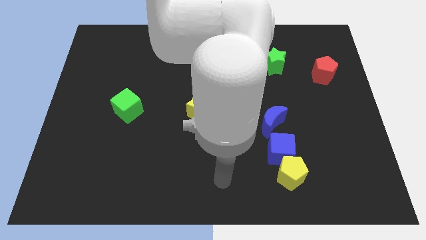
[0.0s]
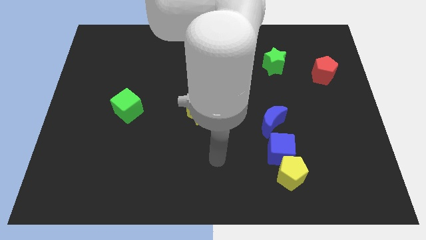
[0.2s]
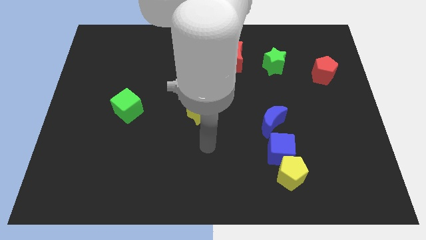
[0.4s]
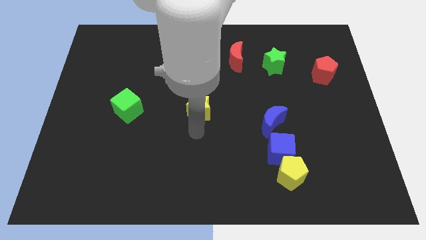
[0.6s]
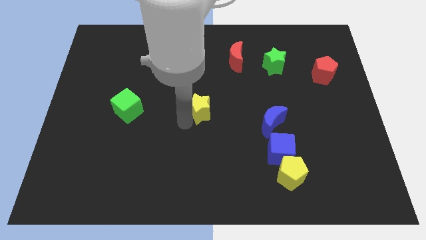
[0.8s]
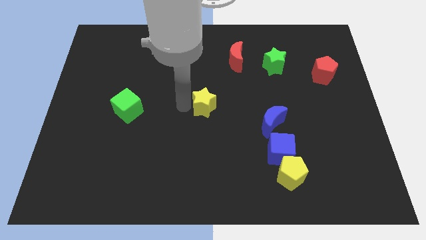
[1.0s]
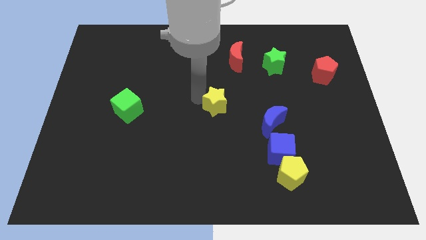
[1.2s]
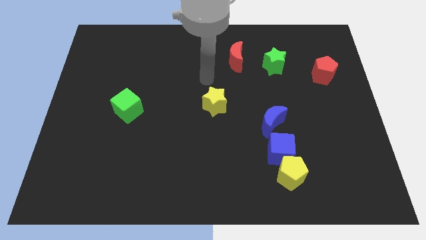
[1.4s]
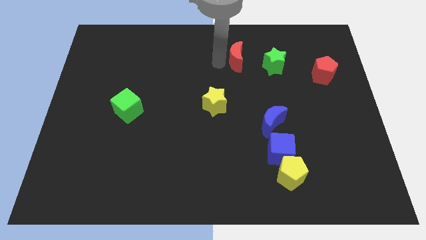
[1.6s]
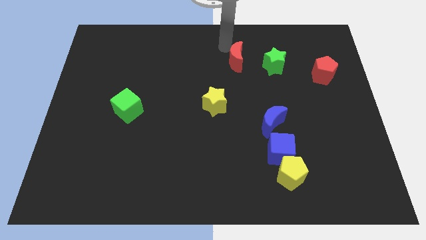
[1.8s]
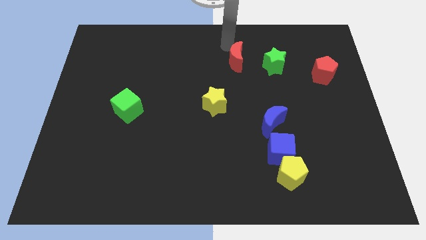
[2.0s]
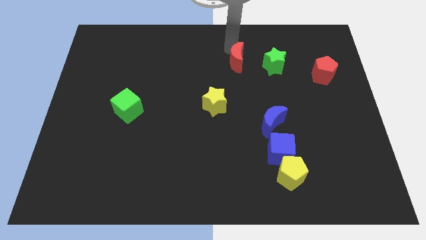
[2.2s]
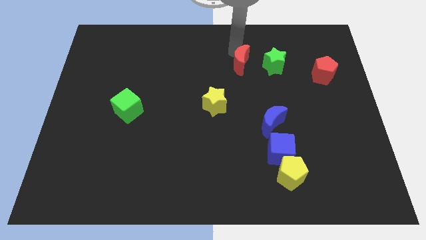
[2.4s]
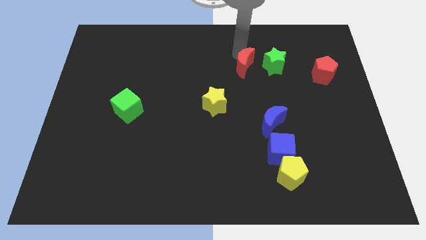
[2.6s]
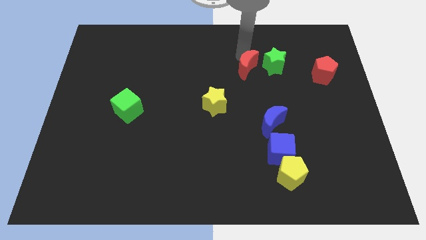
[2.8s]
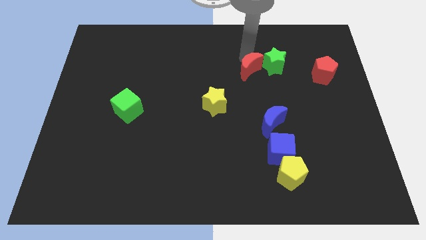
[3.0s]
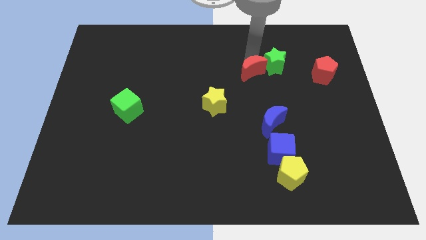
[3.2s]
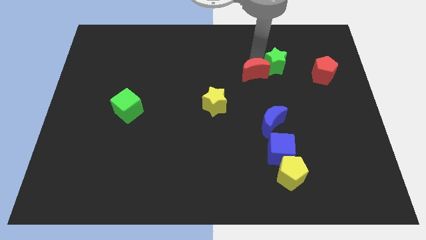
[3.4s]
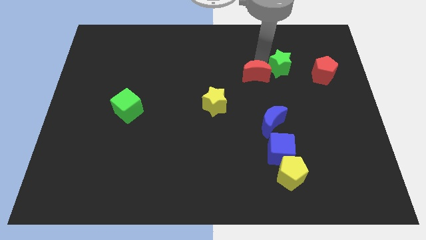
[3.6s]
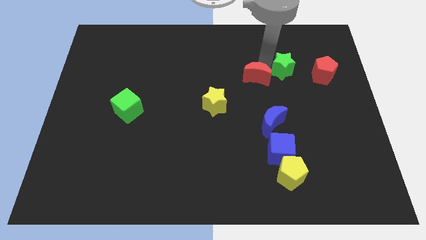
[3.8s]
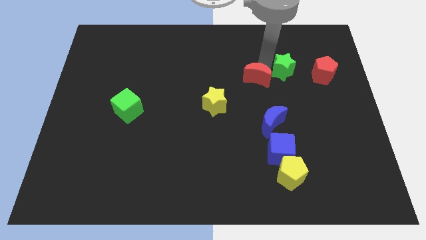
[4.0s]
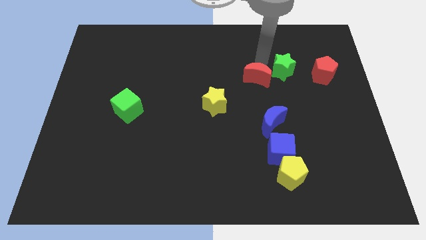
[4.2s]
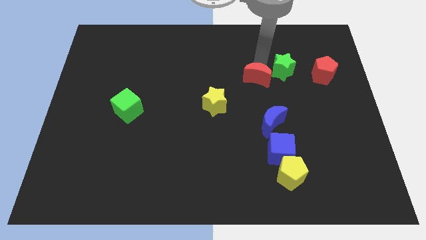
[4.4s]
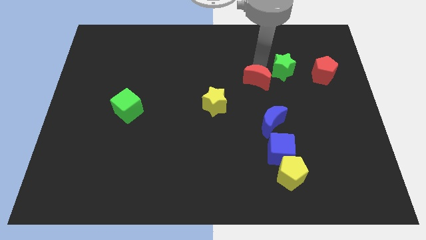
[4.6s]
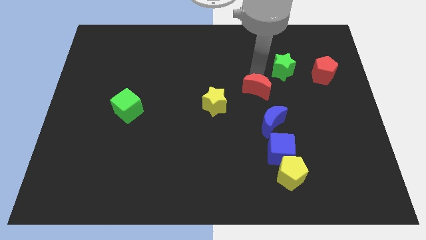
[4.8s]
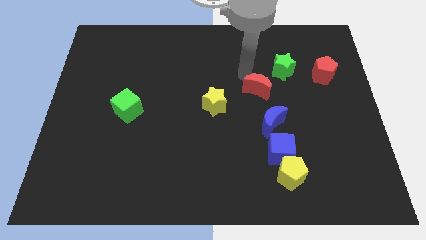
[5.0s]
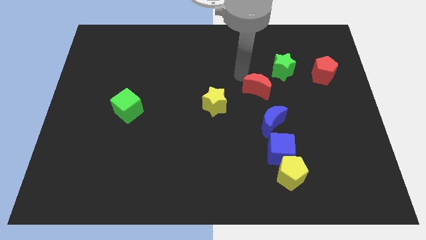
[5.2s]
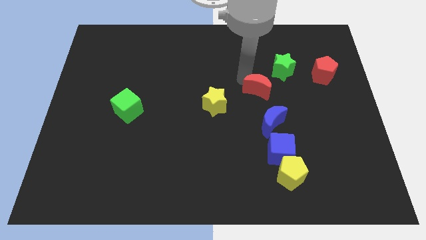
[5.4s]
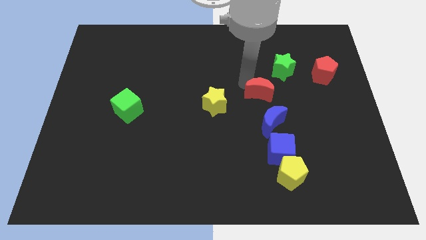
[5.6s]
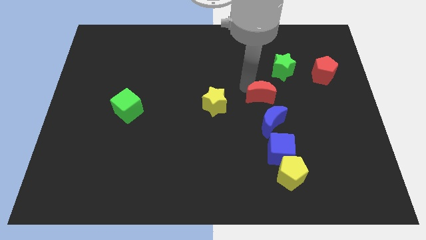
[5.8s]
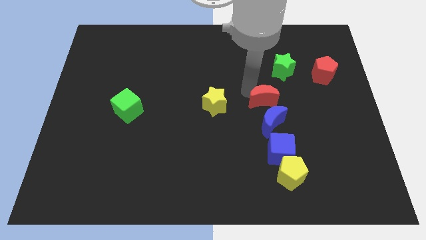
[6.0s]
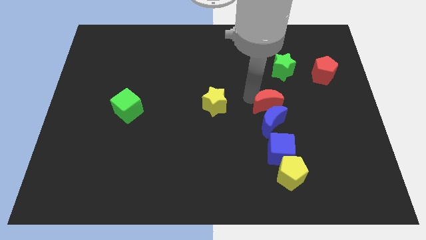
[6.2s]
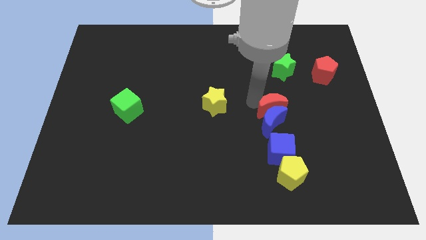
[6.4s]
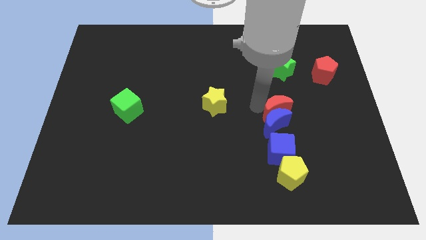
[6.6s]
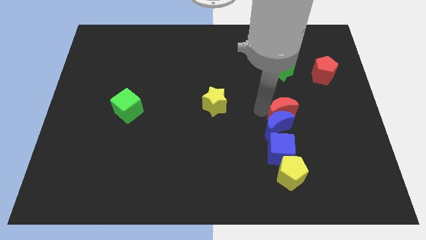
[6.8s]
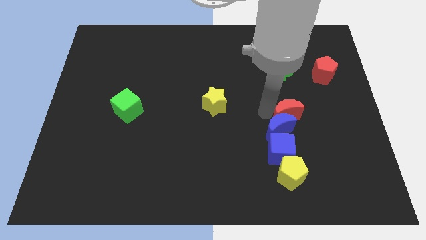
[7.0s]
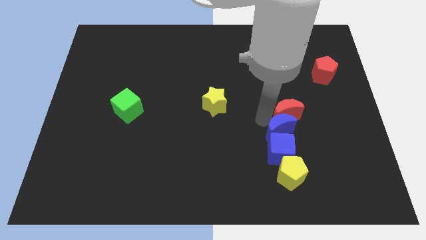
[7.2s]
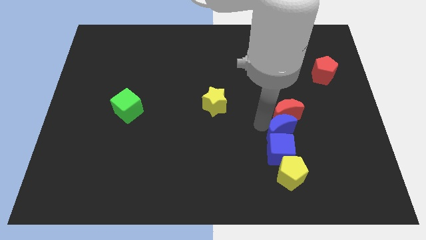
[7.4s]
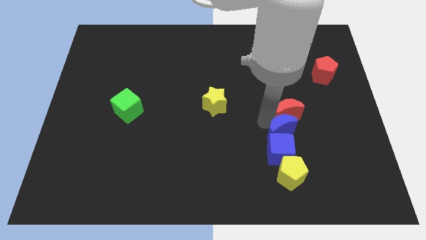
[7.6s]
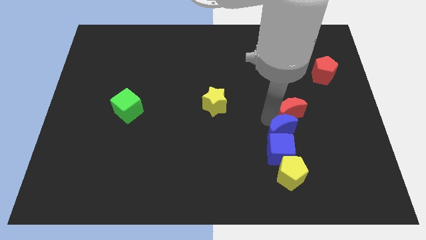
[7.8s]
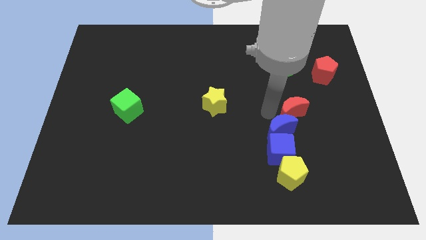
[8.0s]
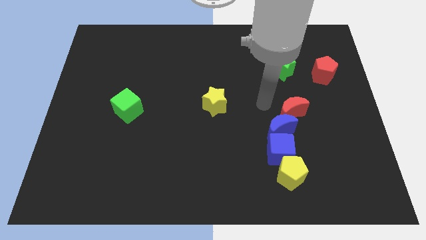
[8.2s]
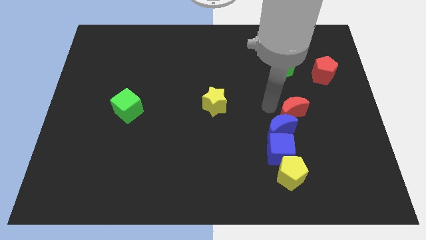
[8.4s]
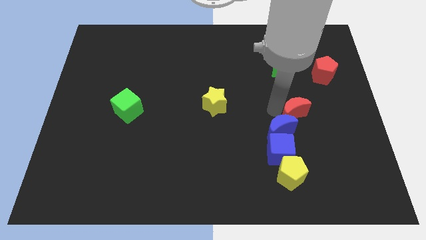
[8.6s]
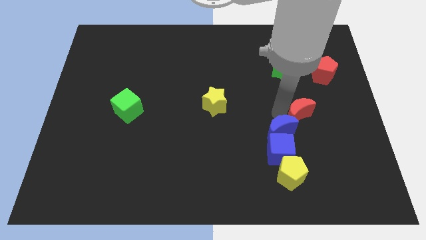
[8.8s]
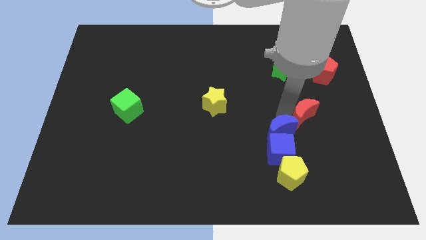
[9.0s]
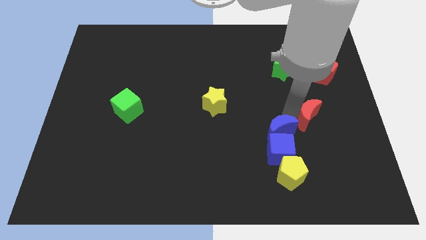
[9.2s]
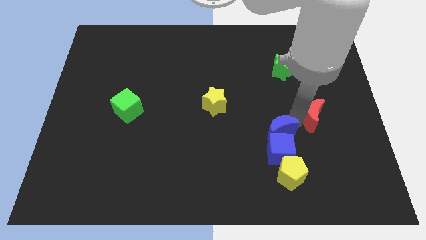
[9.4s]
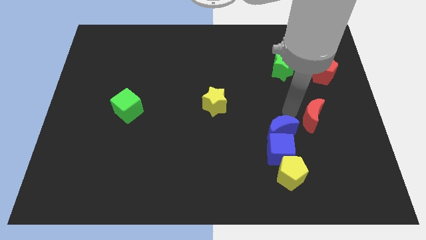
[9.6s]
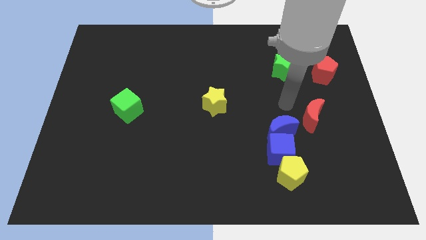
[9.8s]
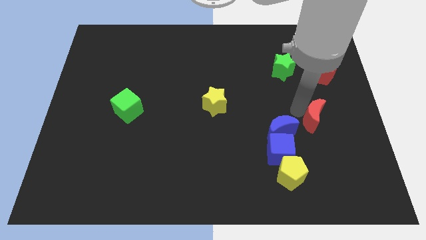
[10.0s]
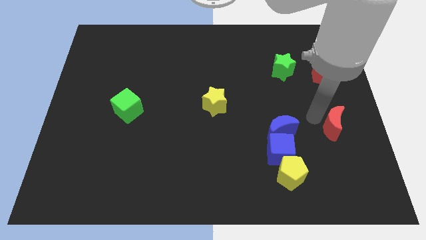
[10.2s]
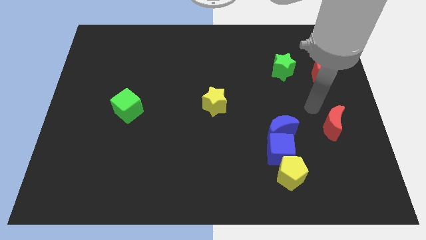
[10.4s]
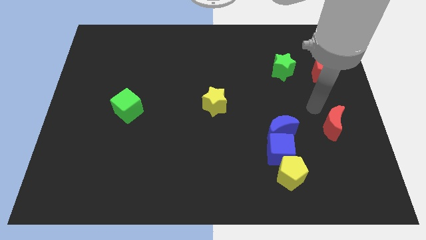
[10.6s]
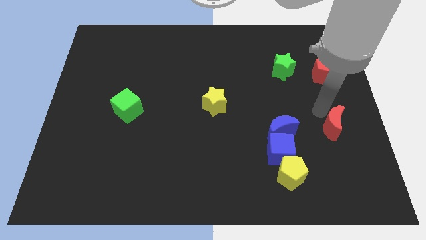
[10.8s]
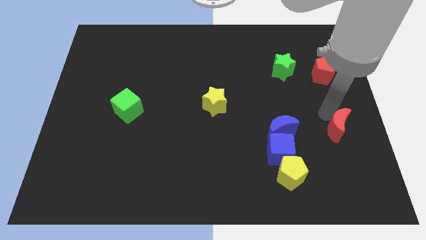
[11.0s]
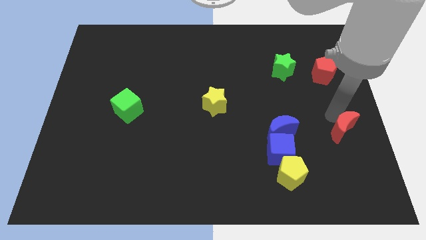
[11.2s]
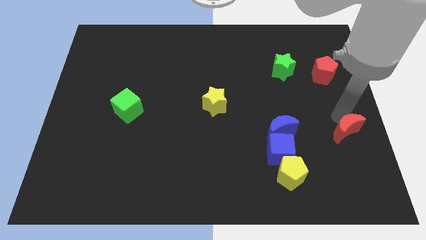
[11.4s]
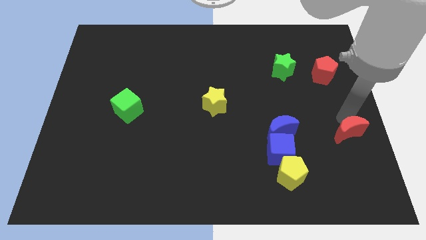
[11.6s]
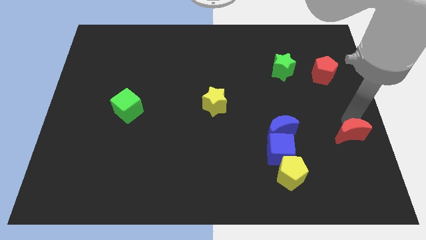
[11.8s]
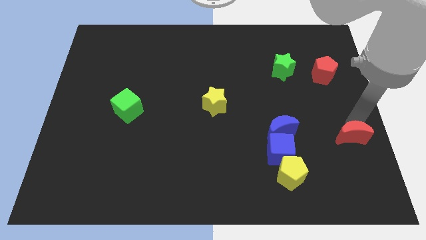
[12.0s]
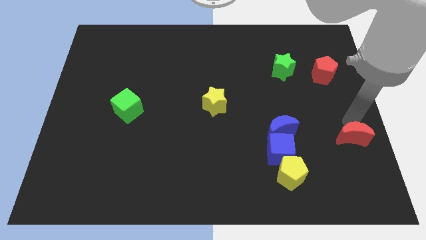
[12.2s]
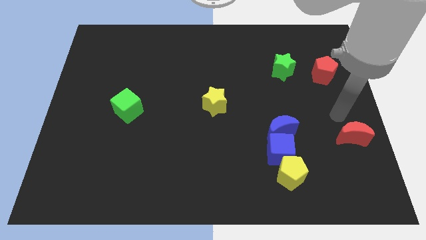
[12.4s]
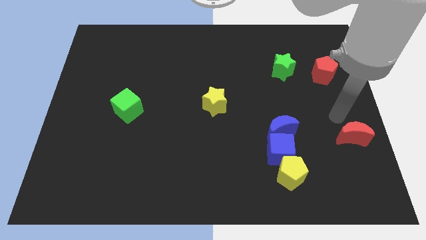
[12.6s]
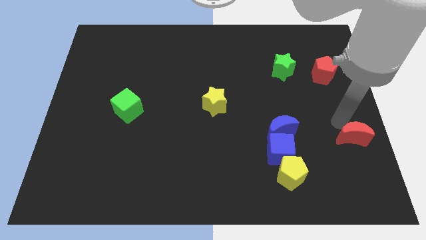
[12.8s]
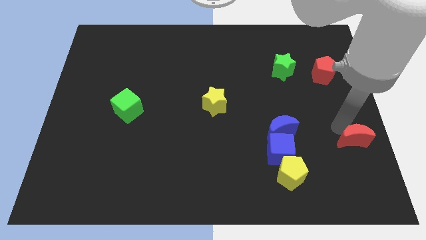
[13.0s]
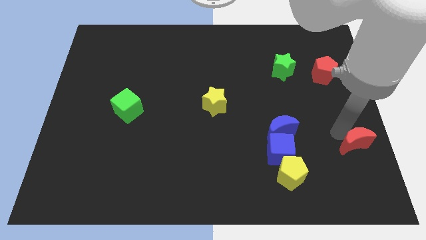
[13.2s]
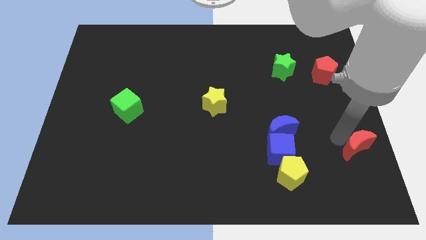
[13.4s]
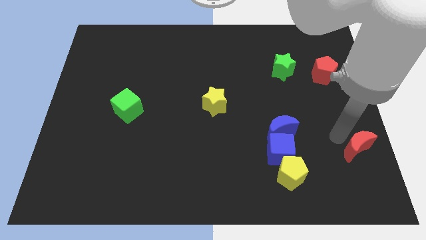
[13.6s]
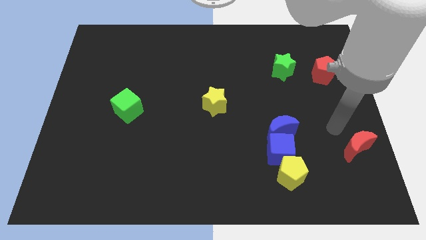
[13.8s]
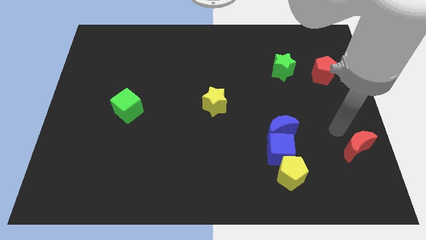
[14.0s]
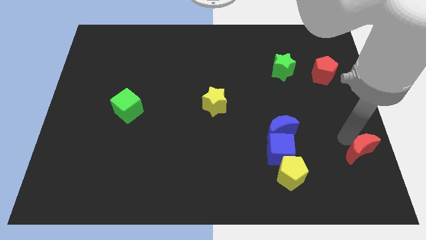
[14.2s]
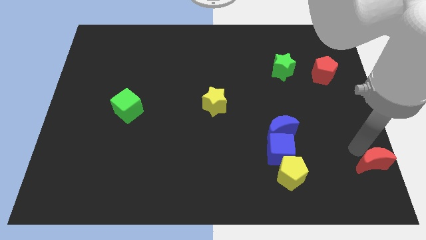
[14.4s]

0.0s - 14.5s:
move the red moon to the bottom right of the board
